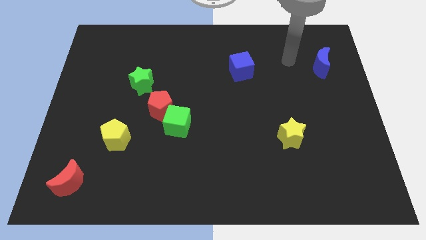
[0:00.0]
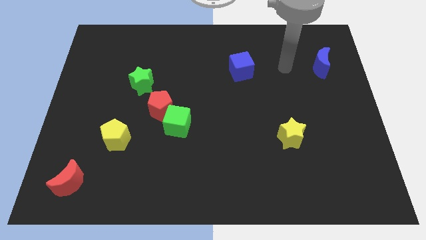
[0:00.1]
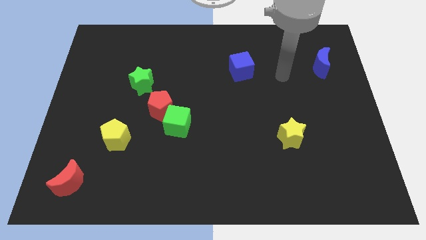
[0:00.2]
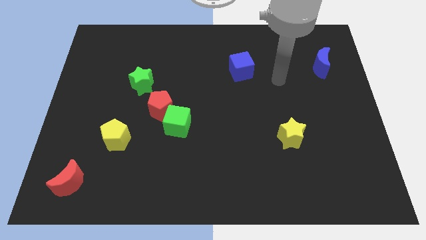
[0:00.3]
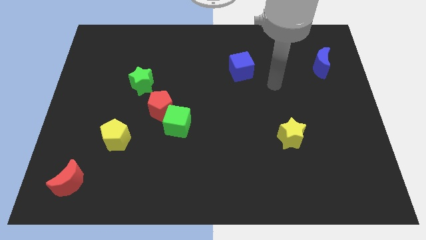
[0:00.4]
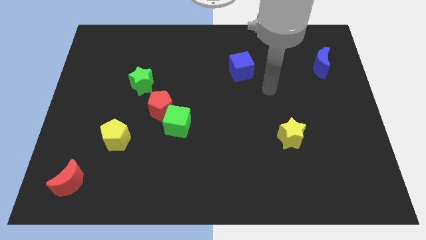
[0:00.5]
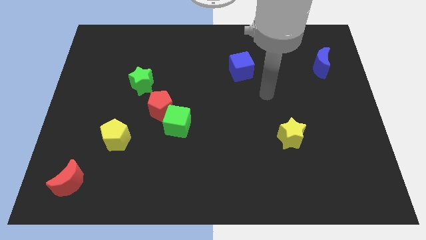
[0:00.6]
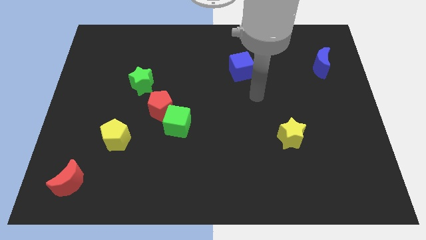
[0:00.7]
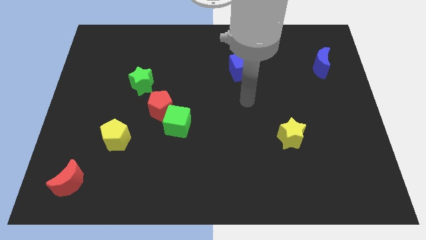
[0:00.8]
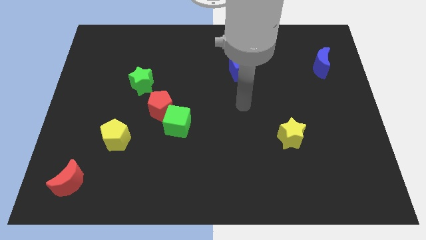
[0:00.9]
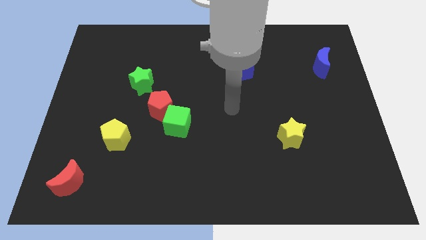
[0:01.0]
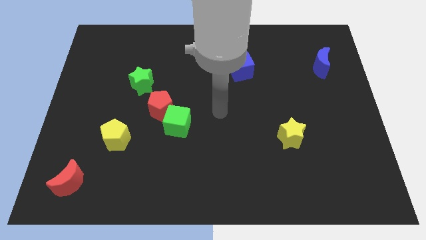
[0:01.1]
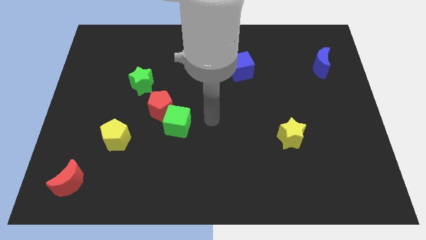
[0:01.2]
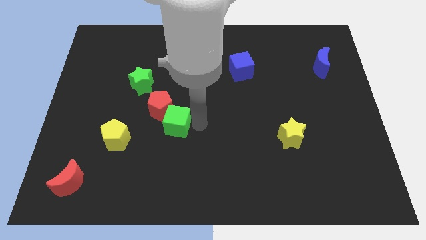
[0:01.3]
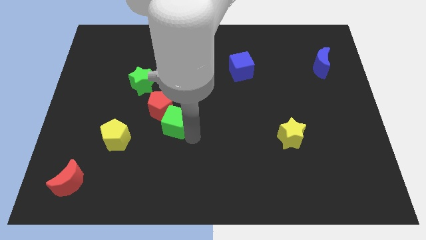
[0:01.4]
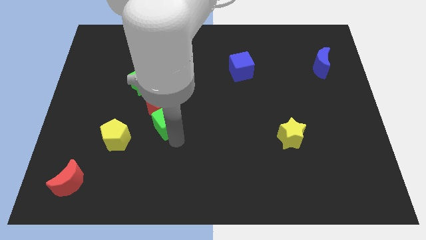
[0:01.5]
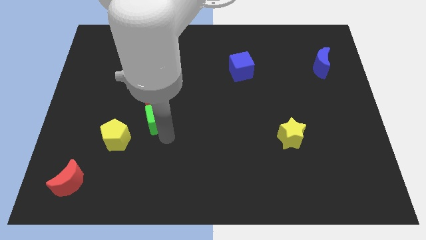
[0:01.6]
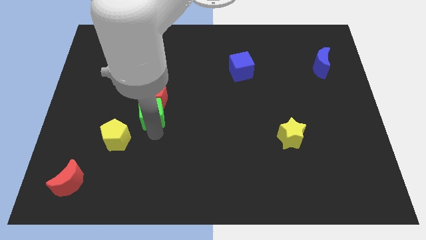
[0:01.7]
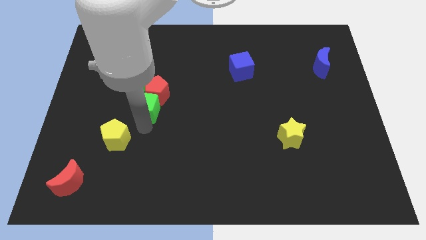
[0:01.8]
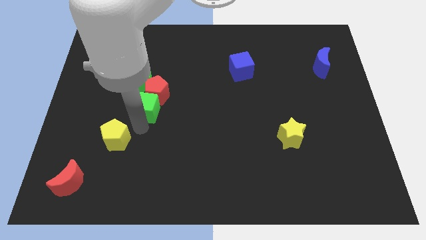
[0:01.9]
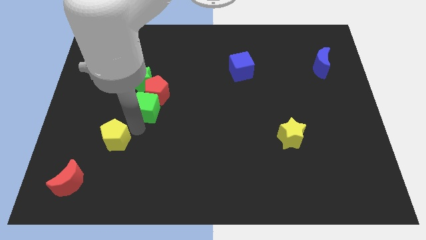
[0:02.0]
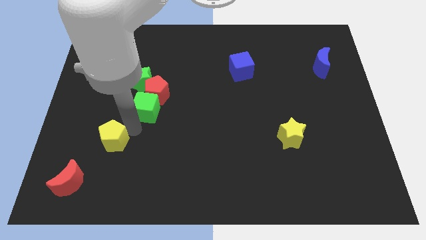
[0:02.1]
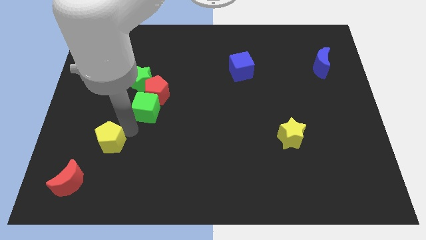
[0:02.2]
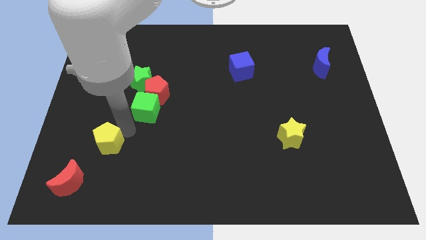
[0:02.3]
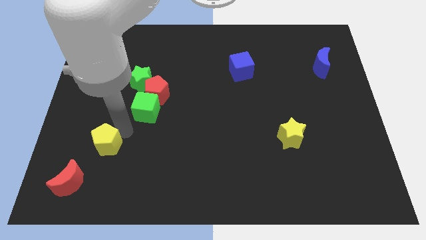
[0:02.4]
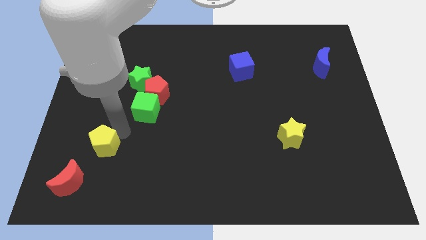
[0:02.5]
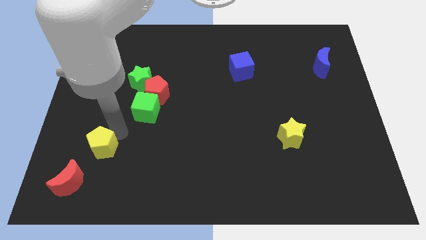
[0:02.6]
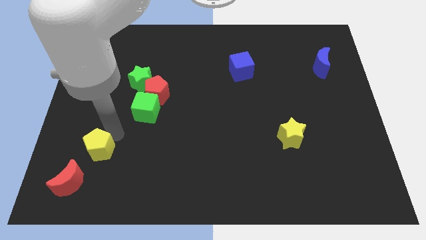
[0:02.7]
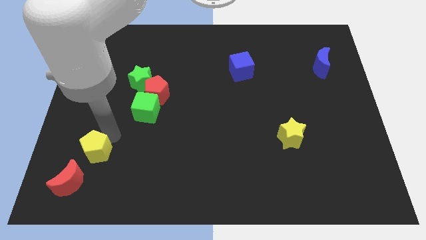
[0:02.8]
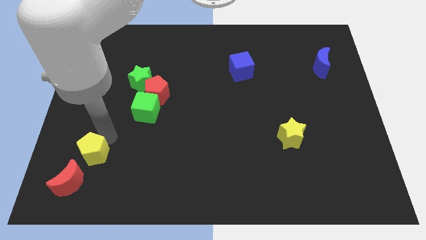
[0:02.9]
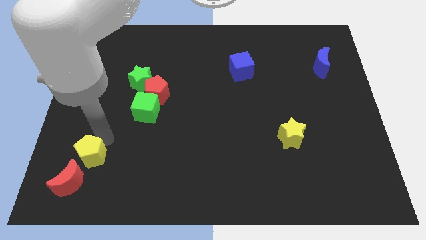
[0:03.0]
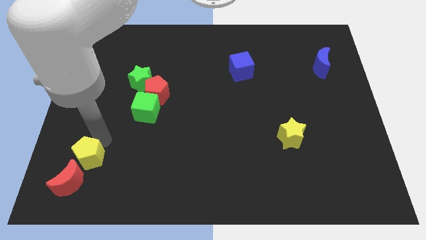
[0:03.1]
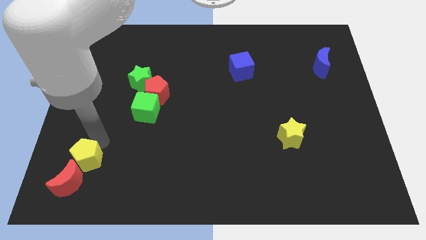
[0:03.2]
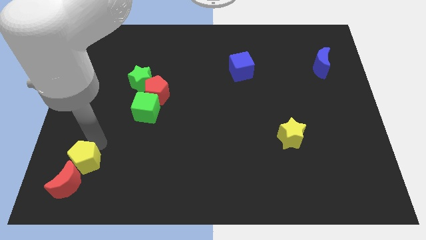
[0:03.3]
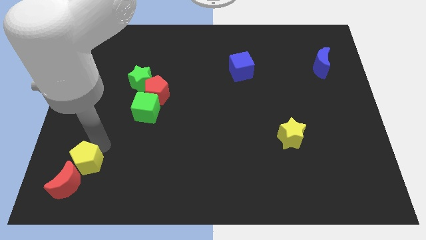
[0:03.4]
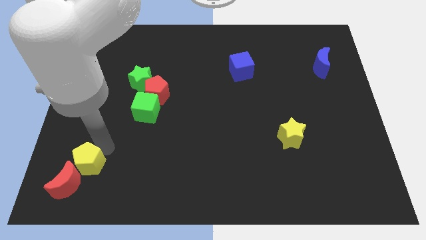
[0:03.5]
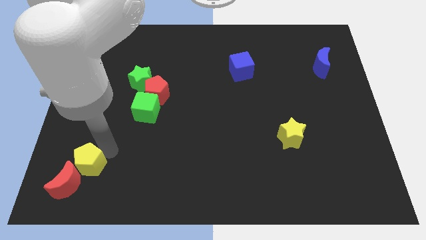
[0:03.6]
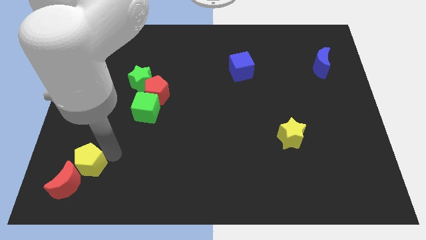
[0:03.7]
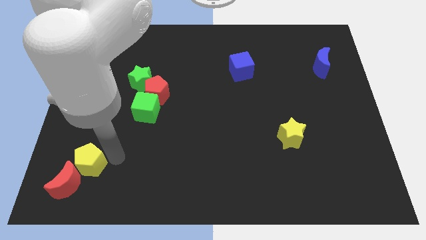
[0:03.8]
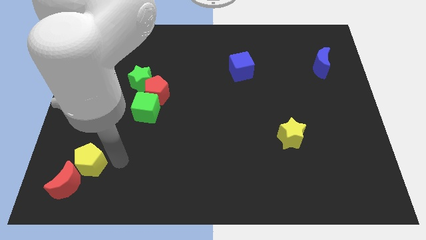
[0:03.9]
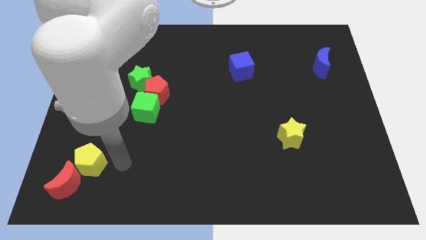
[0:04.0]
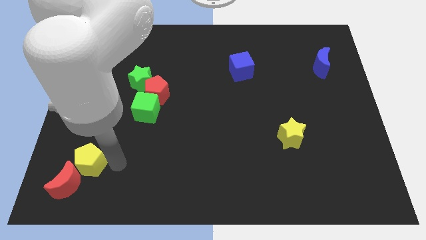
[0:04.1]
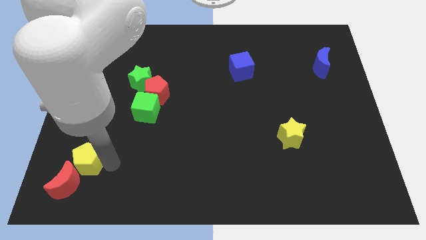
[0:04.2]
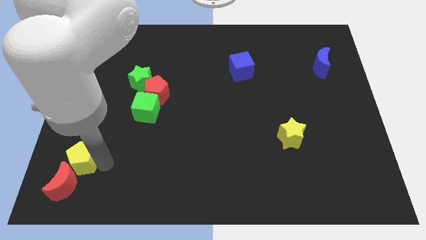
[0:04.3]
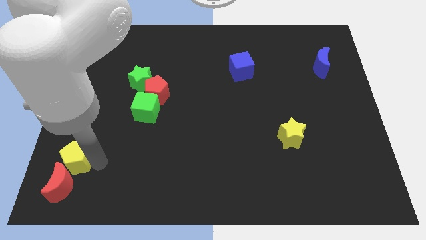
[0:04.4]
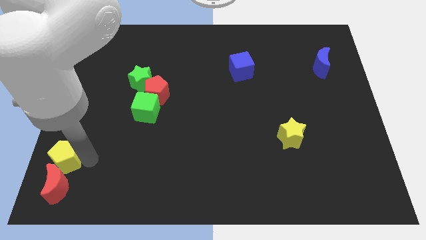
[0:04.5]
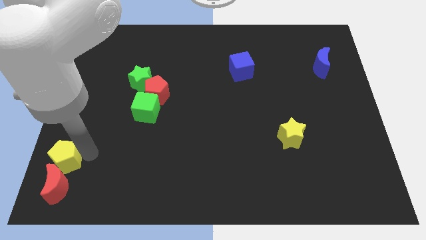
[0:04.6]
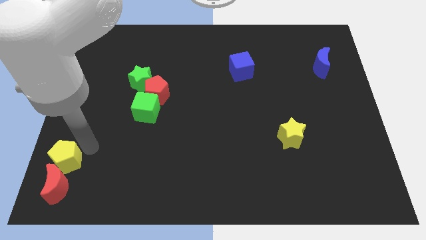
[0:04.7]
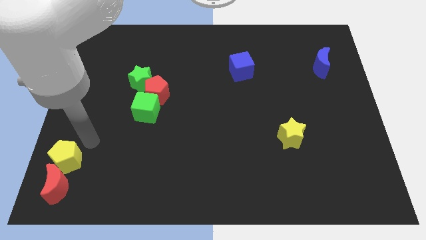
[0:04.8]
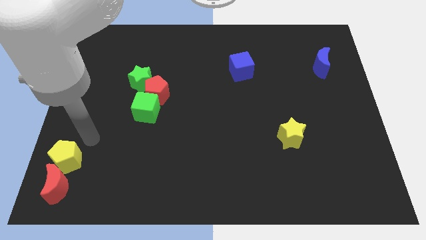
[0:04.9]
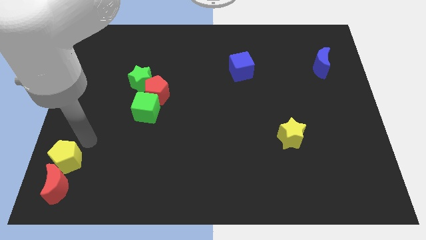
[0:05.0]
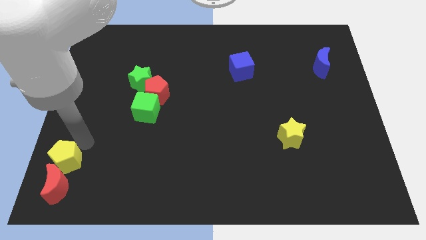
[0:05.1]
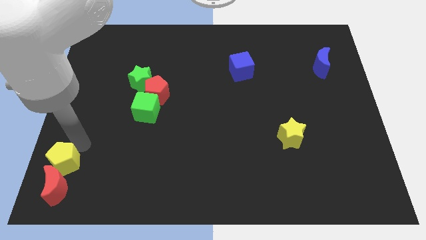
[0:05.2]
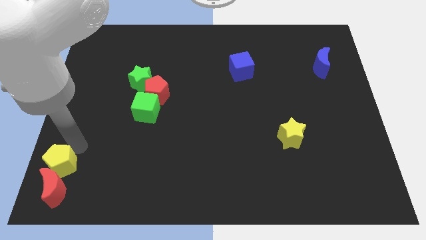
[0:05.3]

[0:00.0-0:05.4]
put the yellow pentagon to the bottom left of the board

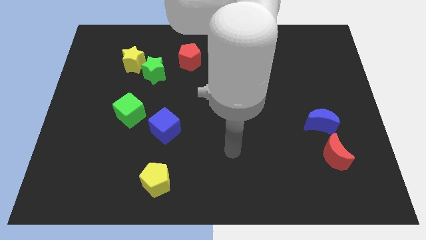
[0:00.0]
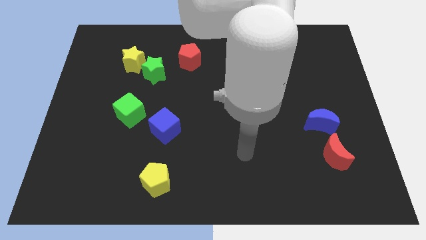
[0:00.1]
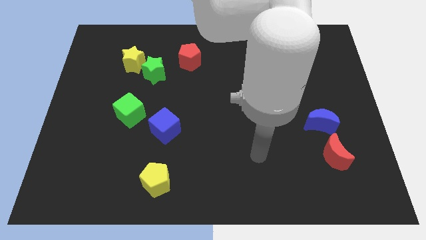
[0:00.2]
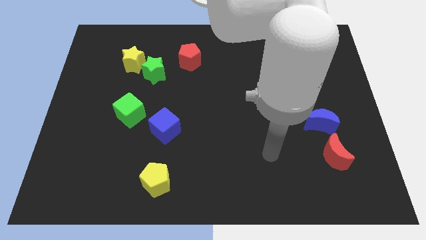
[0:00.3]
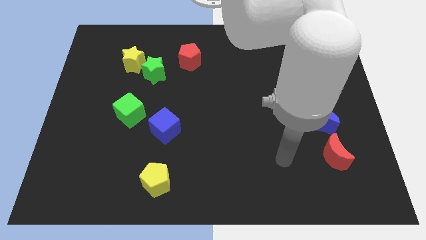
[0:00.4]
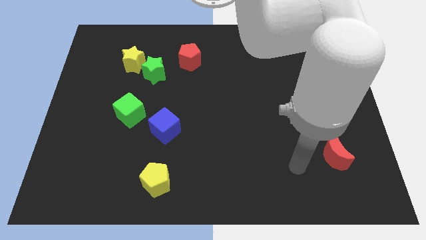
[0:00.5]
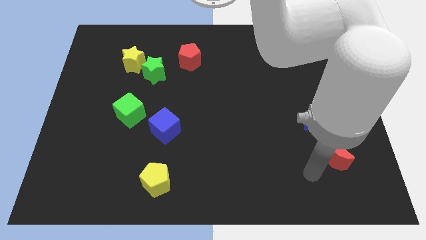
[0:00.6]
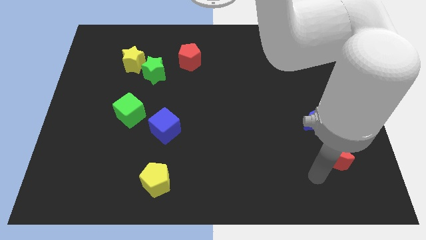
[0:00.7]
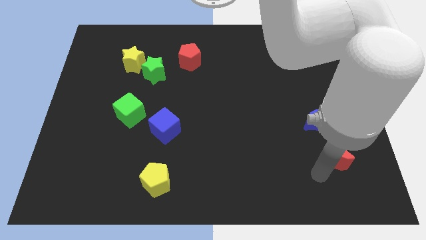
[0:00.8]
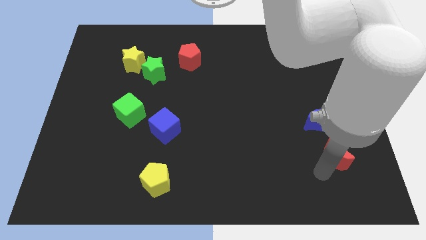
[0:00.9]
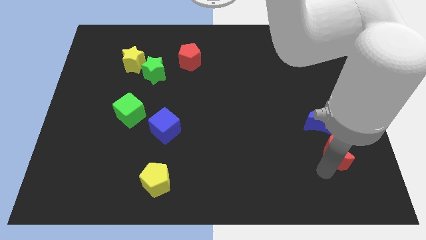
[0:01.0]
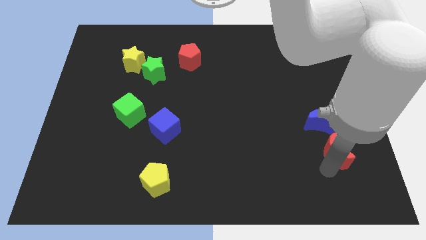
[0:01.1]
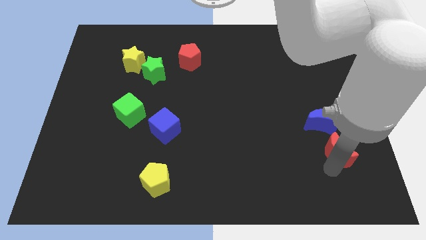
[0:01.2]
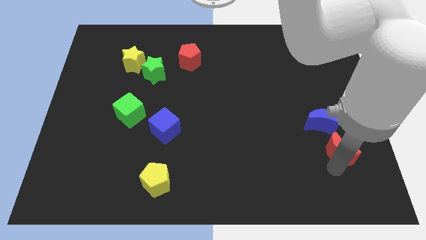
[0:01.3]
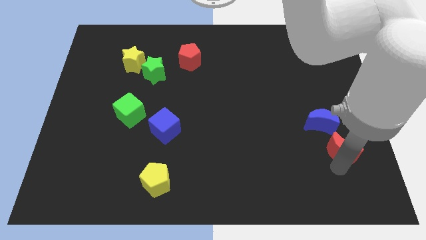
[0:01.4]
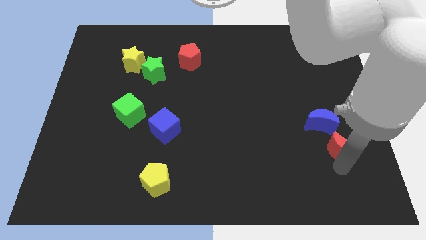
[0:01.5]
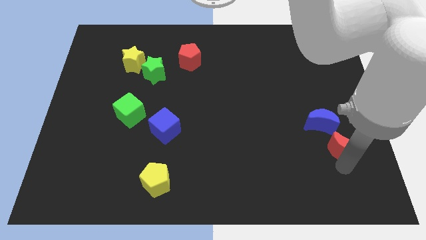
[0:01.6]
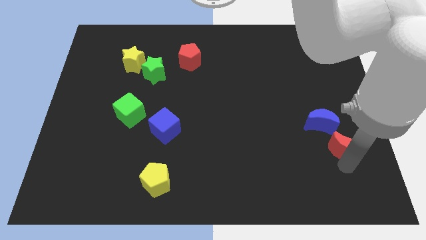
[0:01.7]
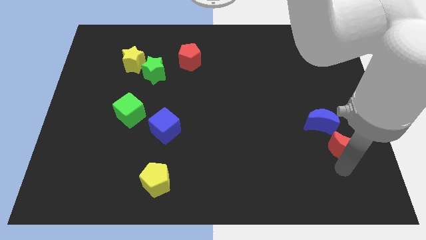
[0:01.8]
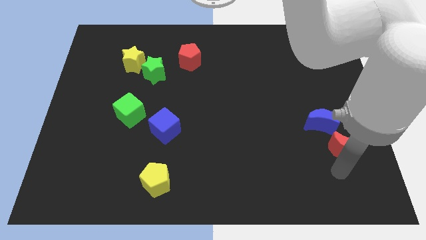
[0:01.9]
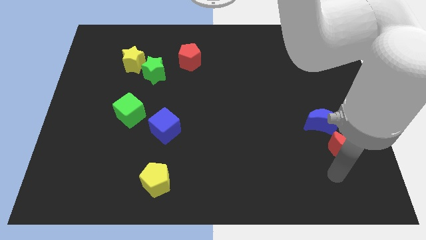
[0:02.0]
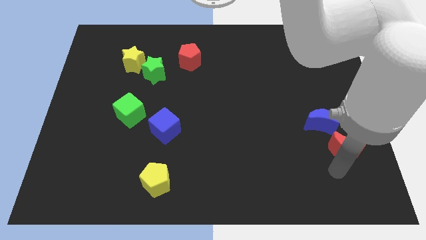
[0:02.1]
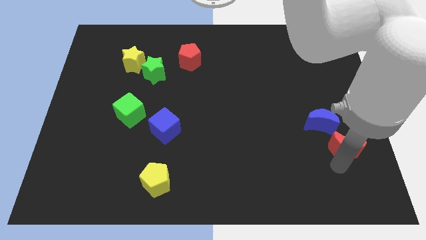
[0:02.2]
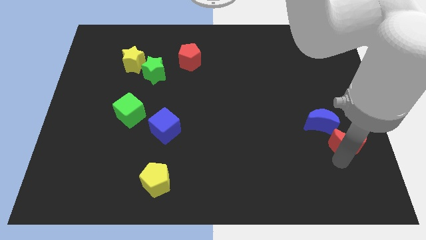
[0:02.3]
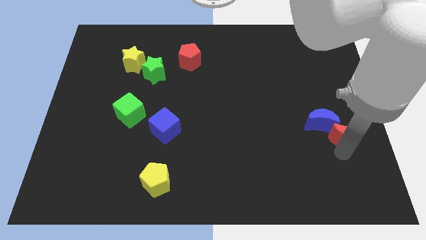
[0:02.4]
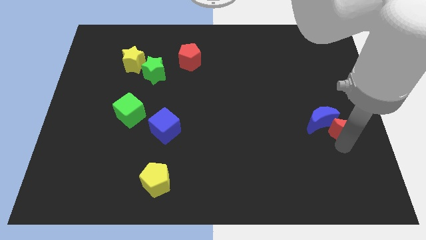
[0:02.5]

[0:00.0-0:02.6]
move the red moon to the center right
